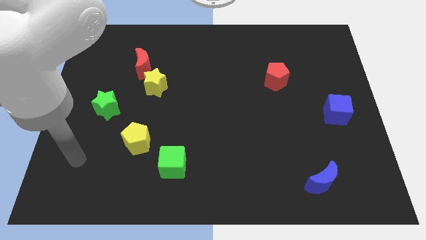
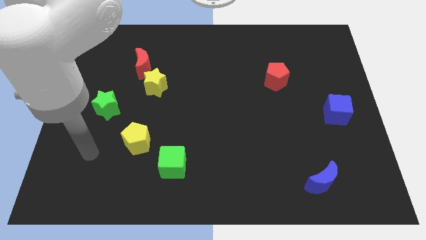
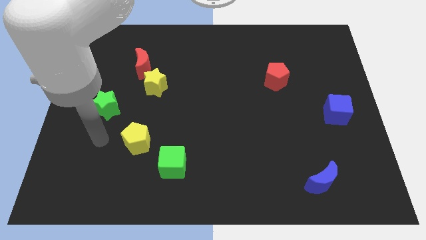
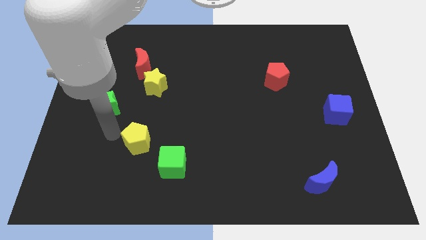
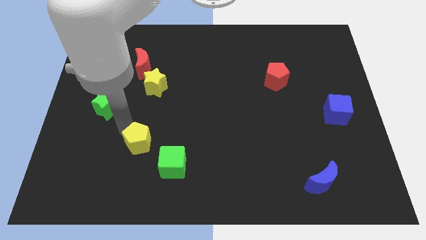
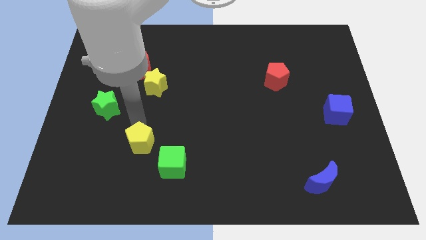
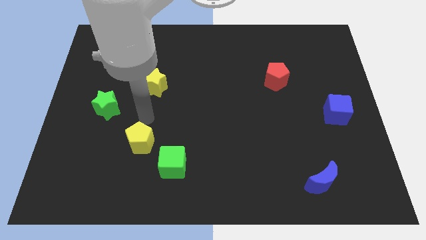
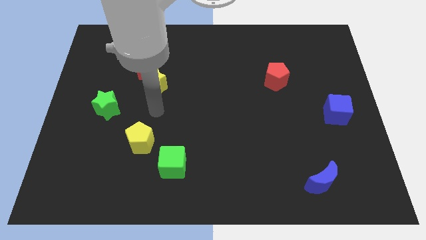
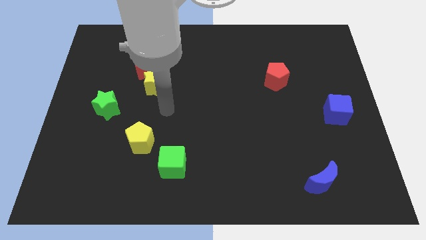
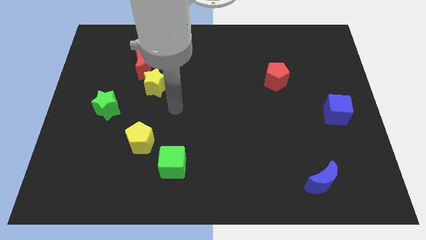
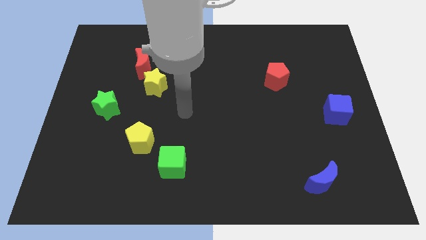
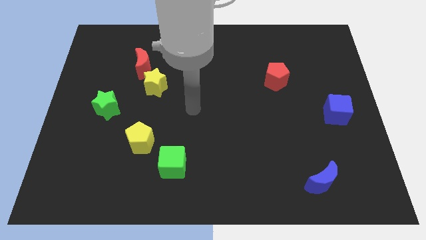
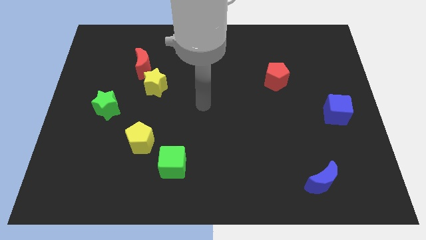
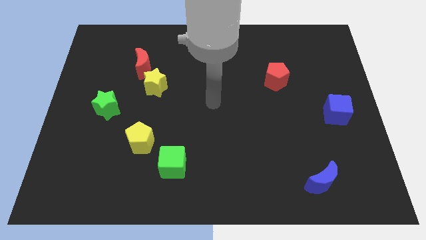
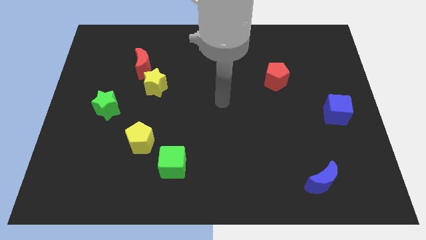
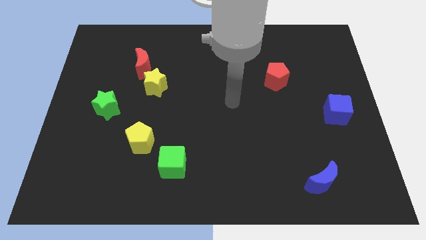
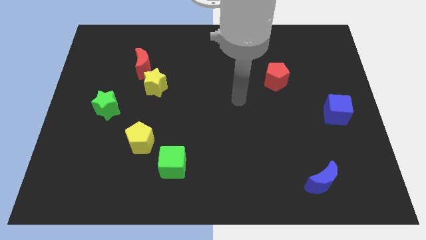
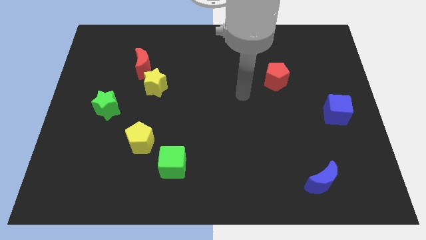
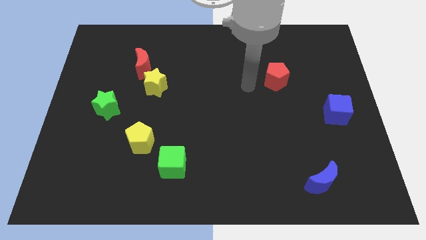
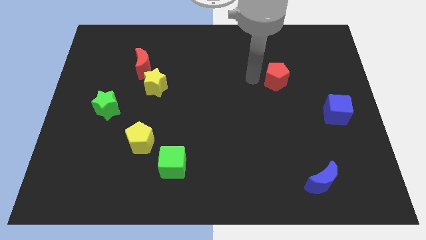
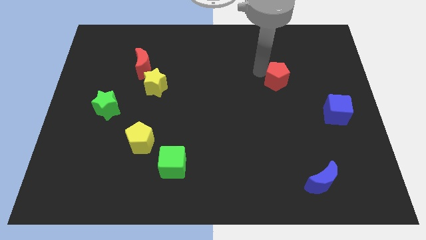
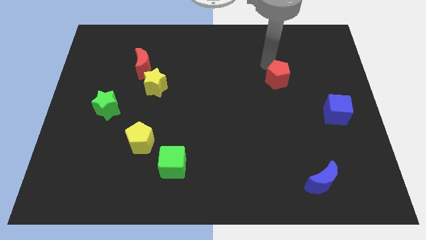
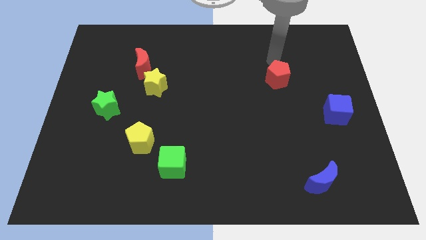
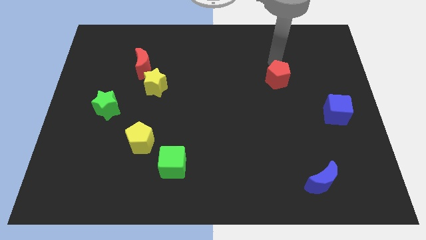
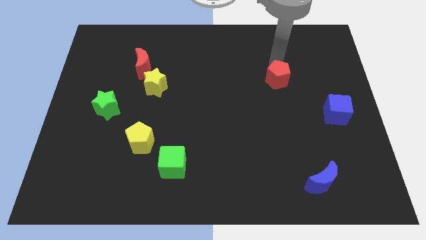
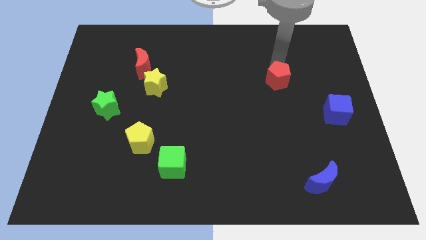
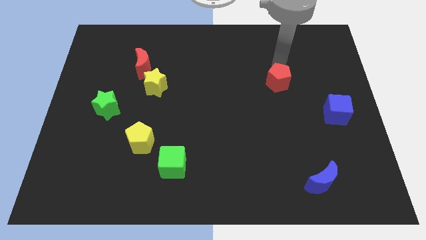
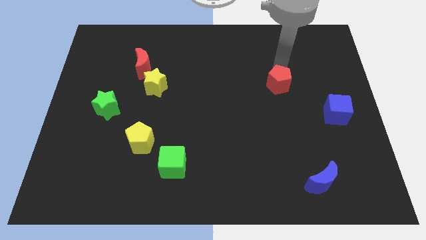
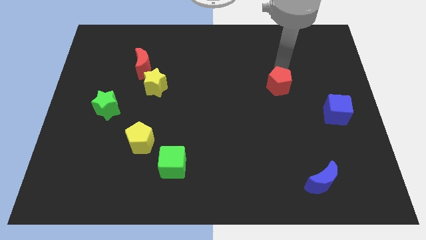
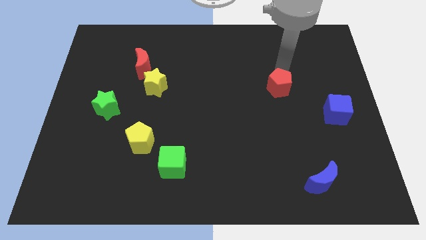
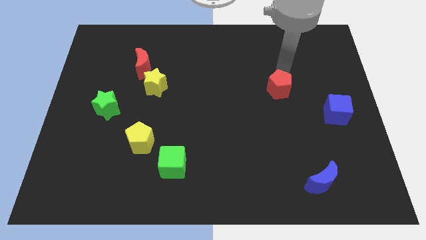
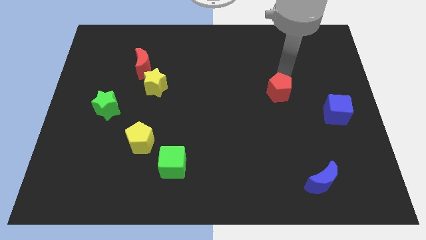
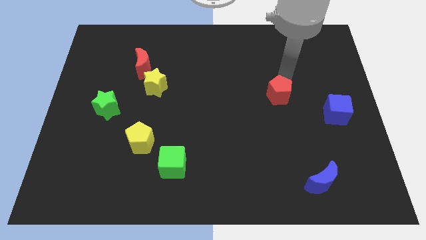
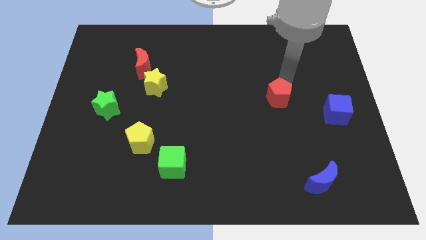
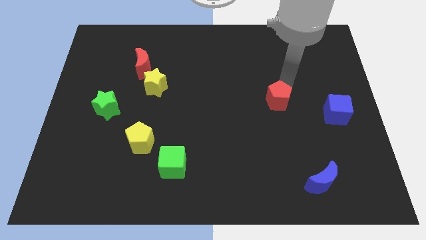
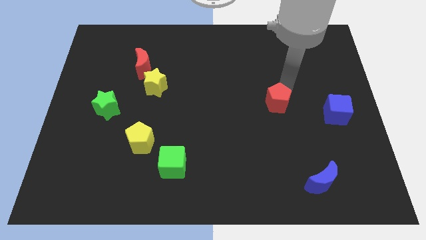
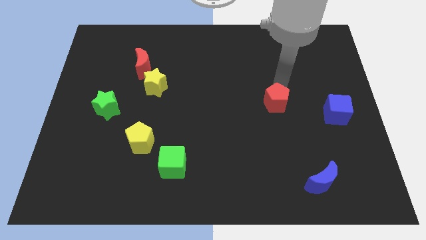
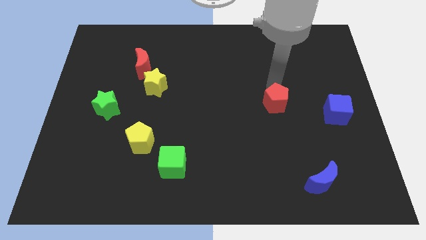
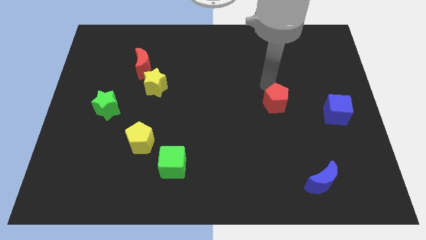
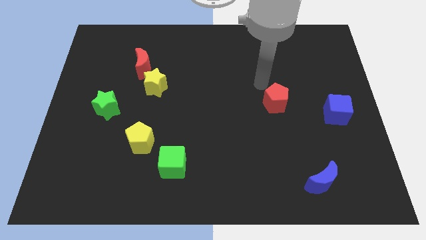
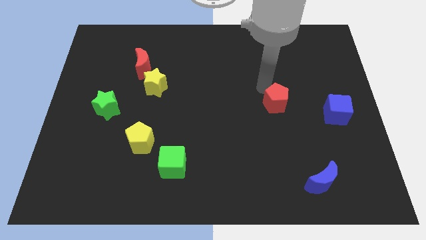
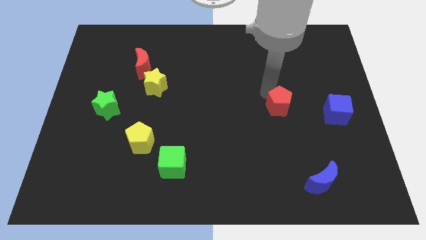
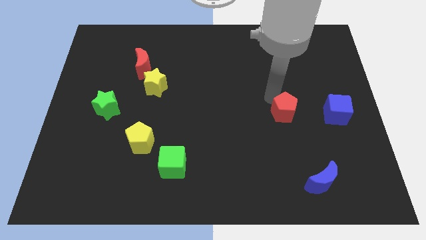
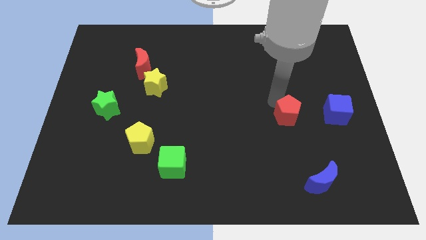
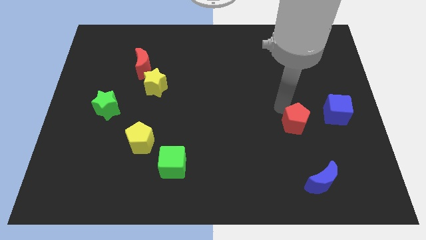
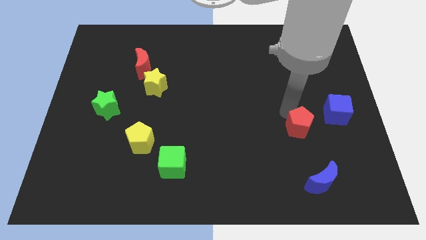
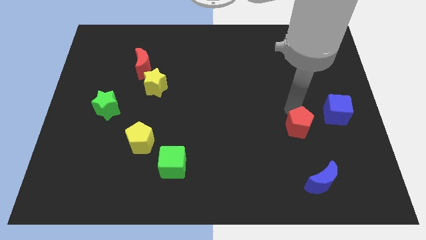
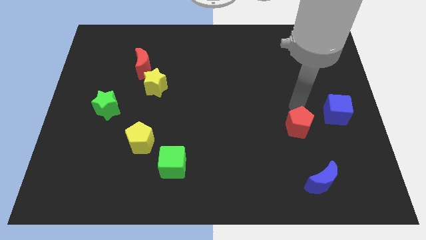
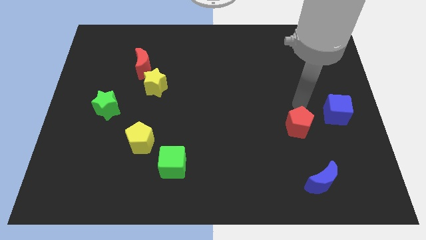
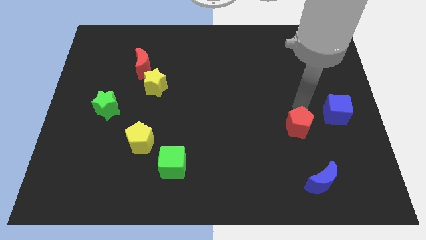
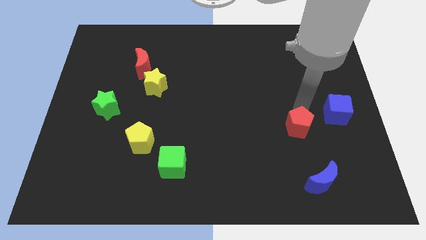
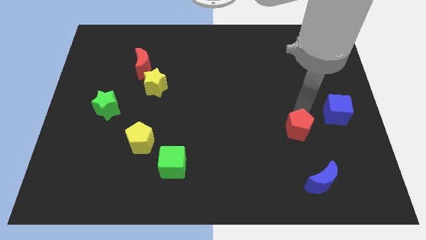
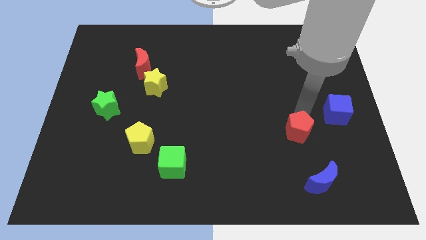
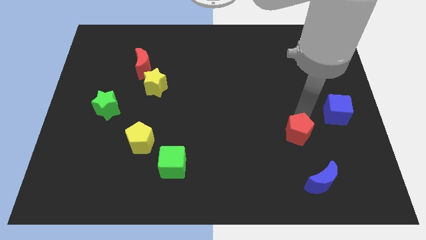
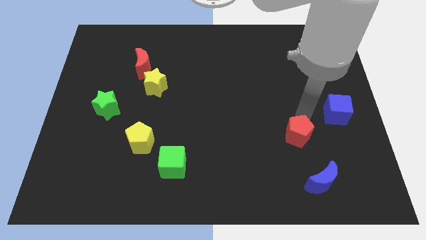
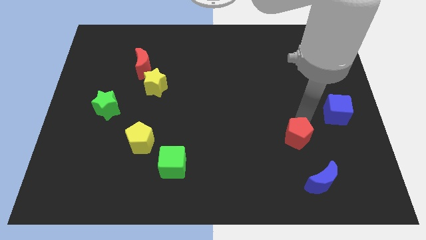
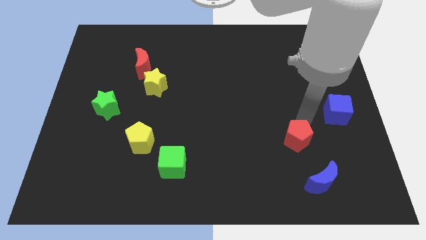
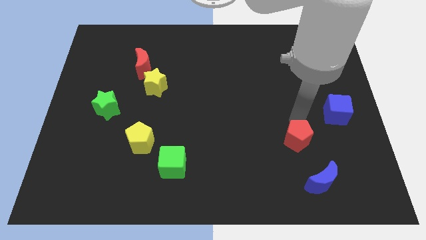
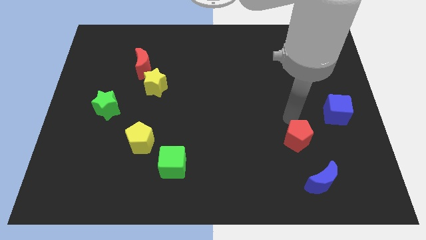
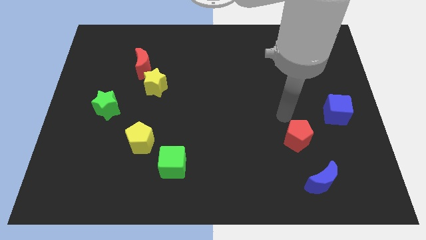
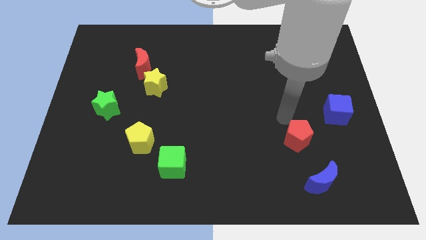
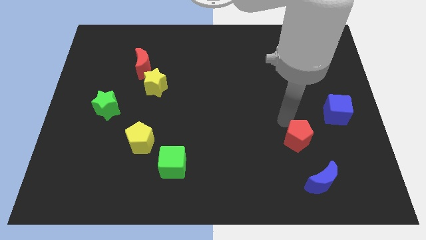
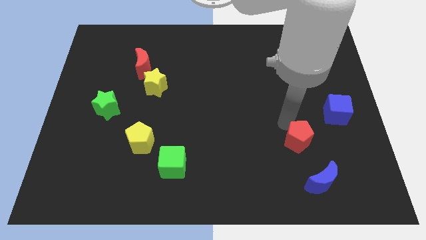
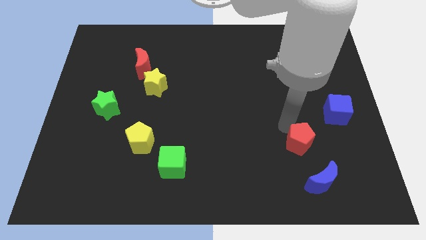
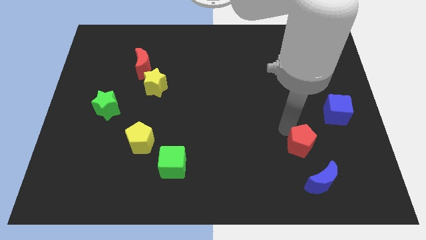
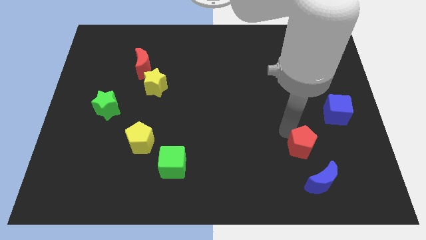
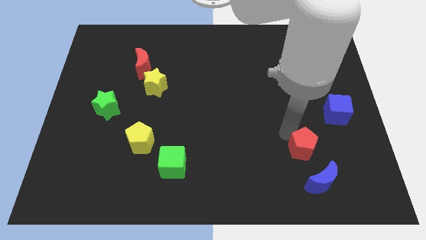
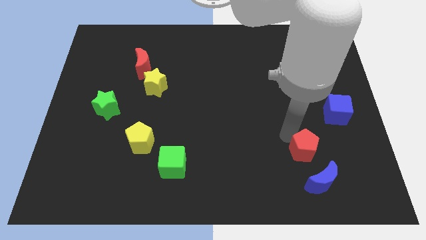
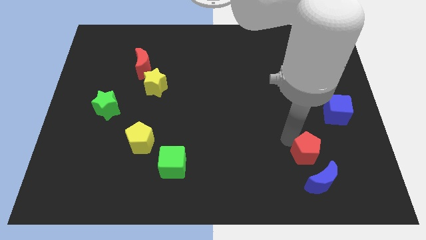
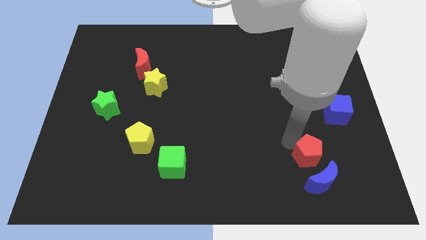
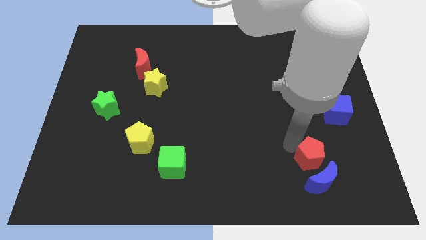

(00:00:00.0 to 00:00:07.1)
put the red pentagon to the blue moon
